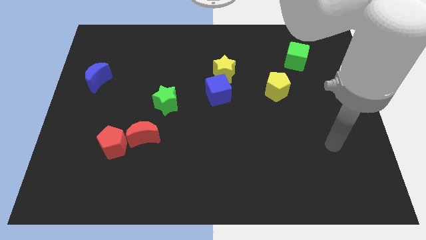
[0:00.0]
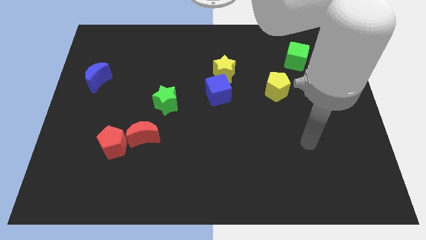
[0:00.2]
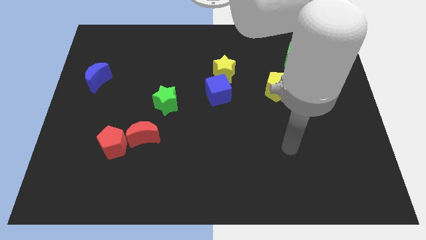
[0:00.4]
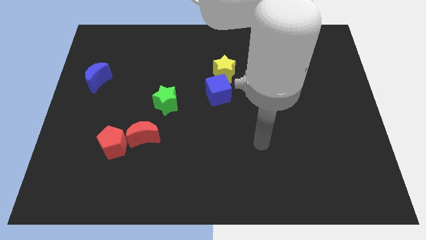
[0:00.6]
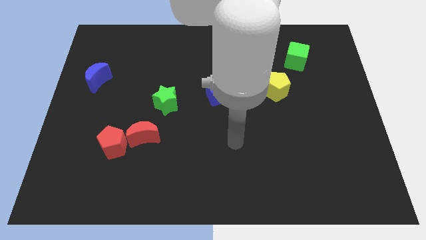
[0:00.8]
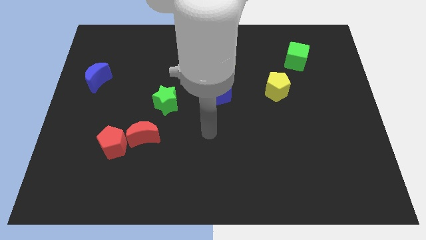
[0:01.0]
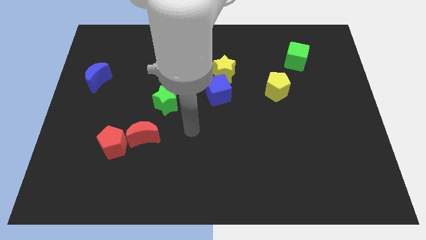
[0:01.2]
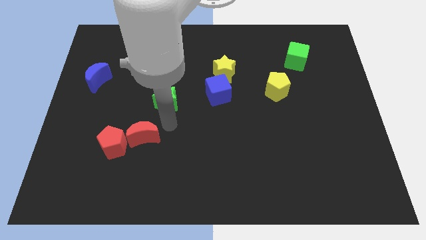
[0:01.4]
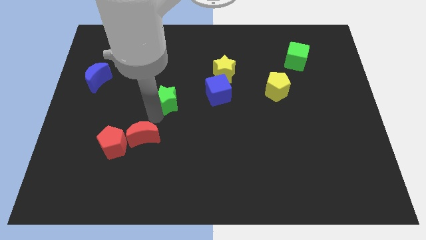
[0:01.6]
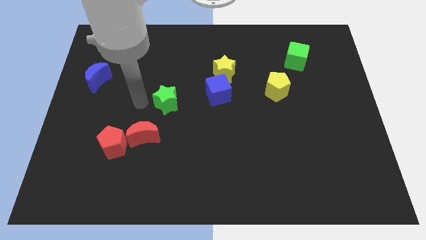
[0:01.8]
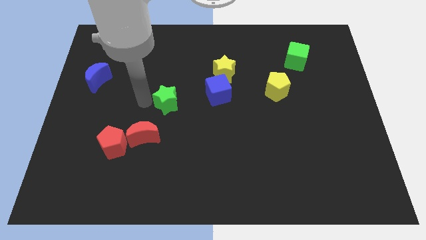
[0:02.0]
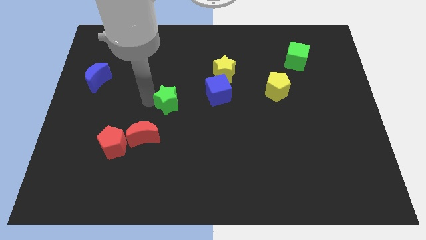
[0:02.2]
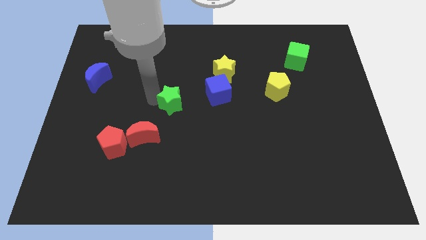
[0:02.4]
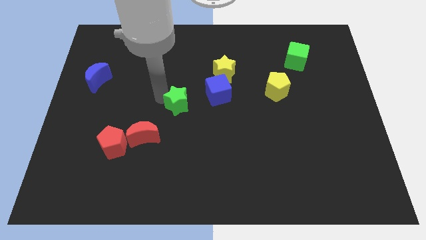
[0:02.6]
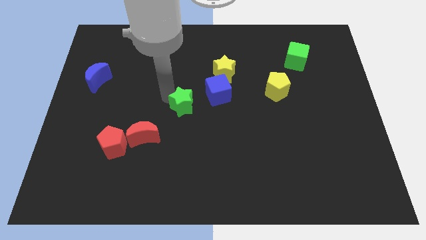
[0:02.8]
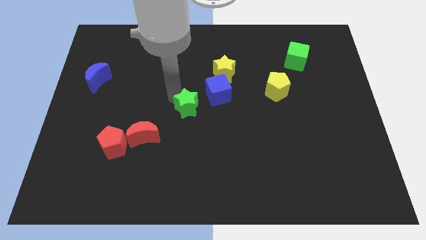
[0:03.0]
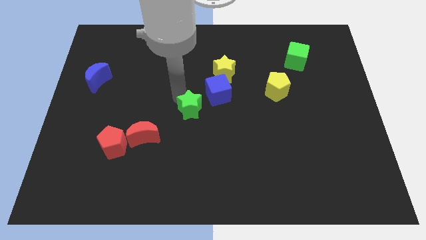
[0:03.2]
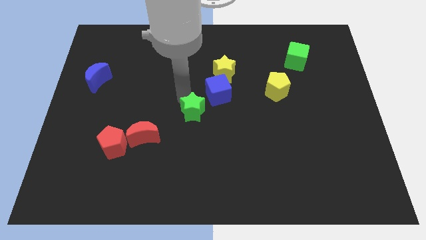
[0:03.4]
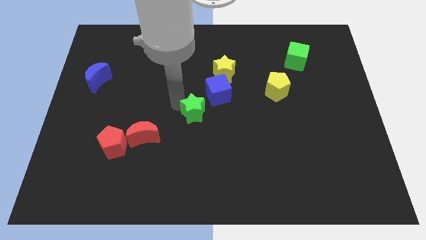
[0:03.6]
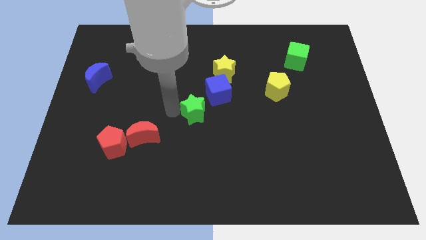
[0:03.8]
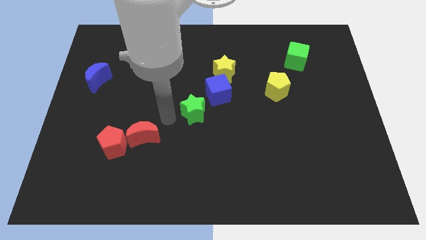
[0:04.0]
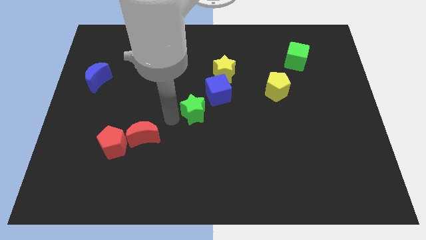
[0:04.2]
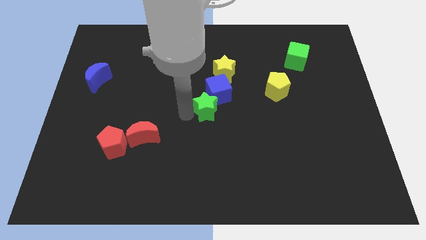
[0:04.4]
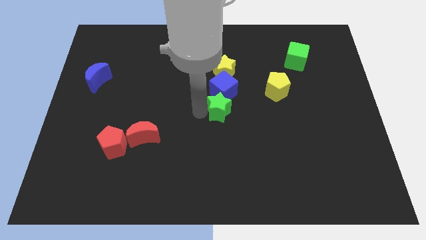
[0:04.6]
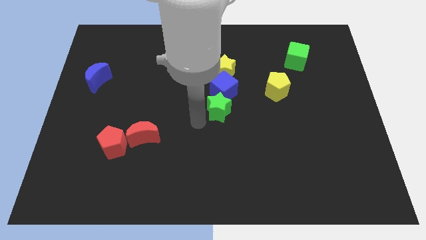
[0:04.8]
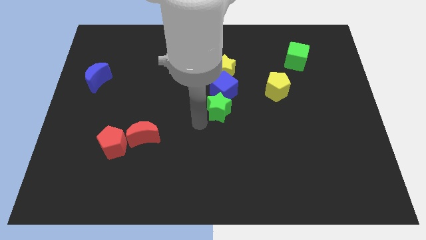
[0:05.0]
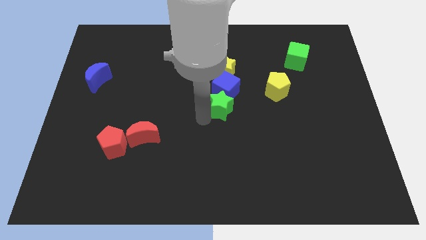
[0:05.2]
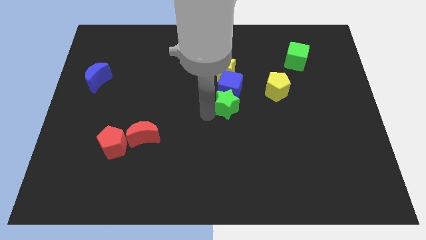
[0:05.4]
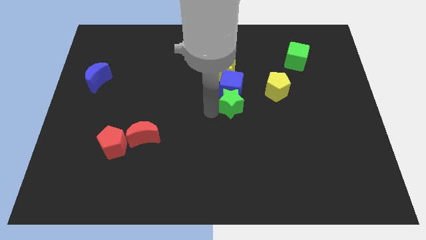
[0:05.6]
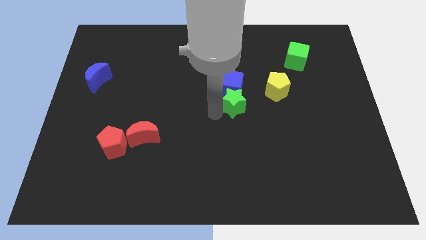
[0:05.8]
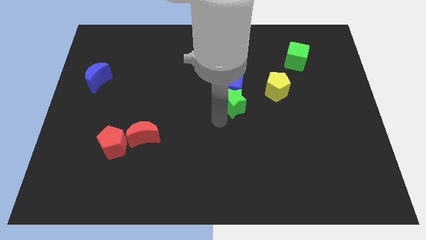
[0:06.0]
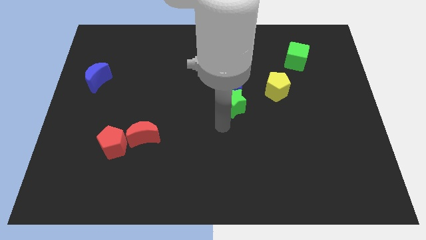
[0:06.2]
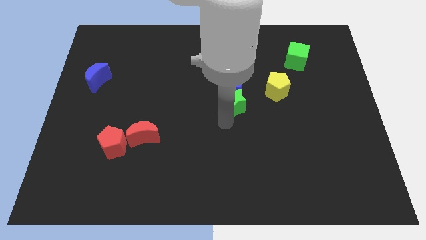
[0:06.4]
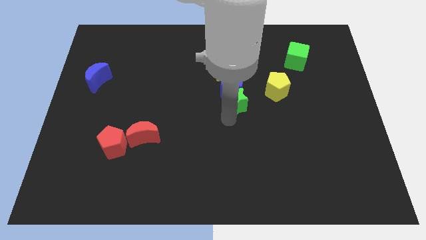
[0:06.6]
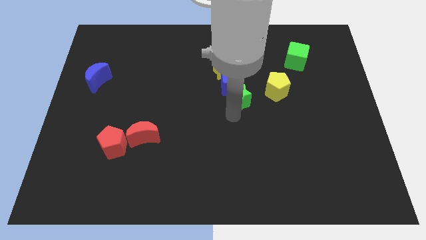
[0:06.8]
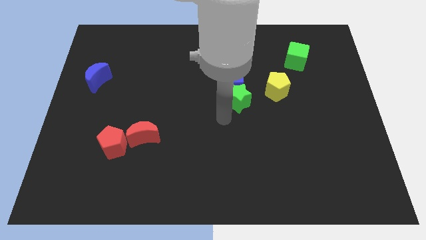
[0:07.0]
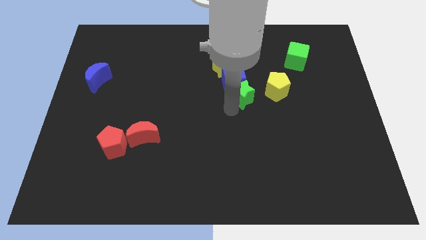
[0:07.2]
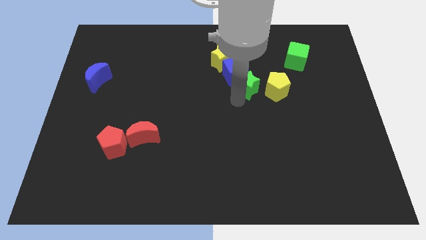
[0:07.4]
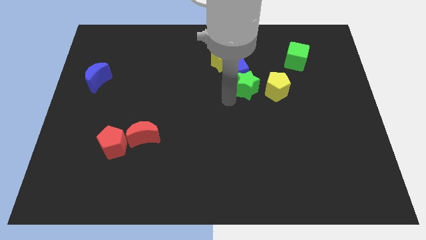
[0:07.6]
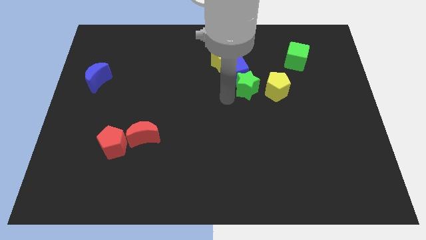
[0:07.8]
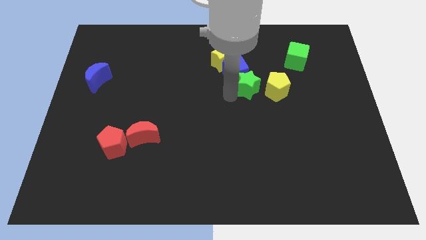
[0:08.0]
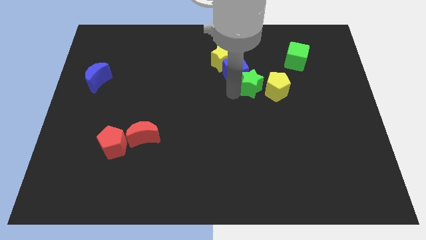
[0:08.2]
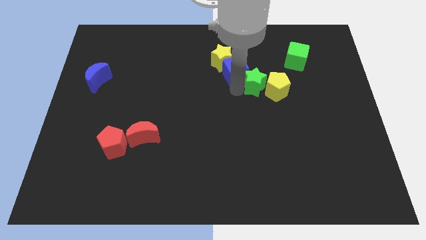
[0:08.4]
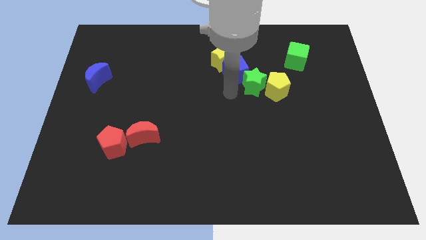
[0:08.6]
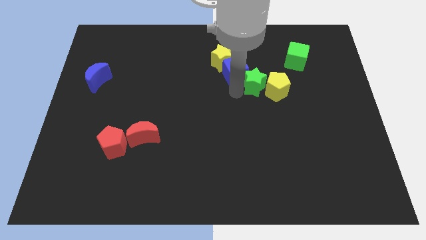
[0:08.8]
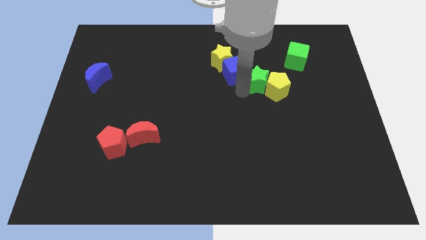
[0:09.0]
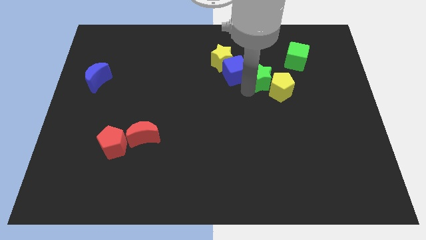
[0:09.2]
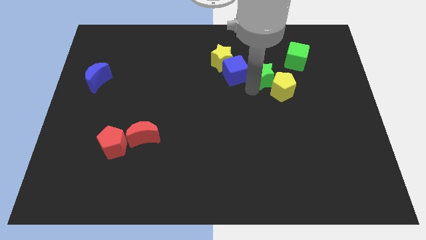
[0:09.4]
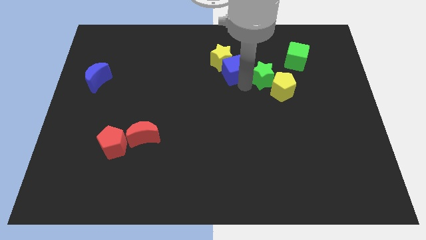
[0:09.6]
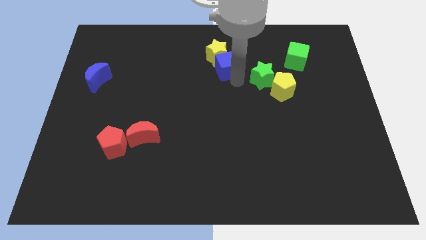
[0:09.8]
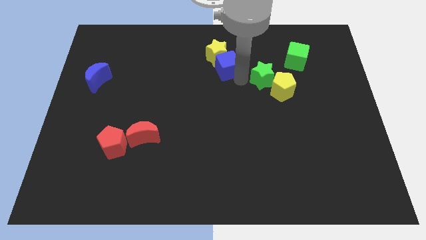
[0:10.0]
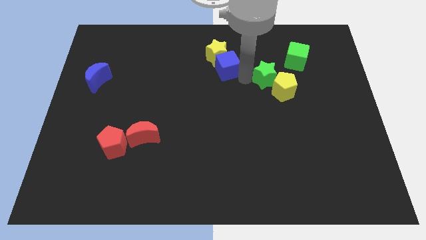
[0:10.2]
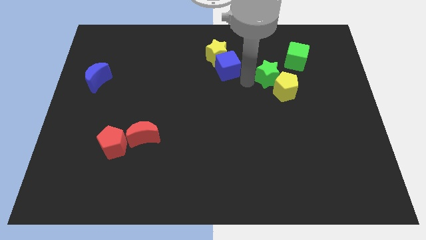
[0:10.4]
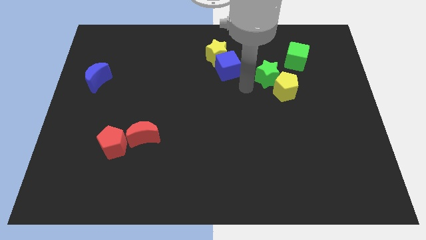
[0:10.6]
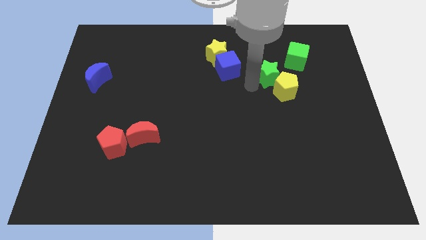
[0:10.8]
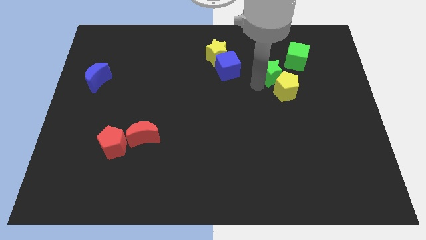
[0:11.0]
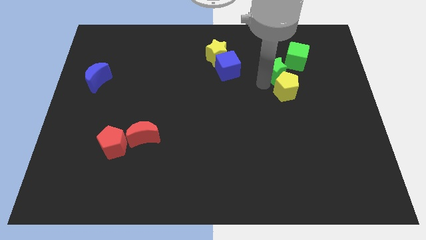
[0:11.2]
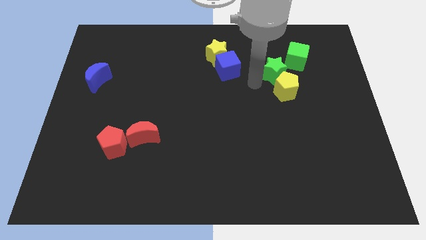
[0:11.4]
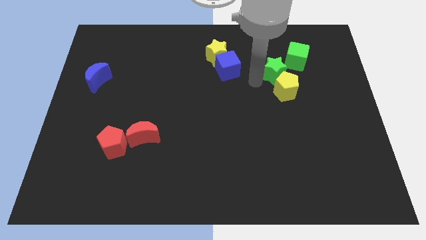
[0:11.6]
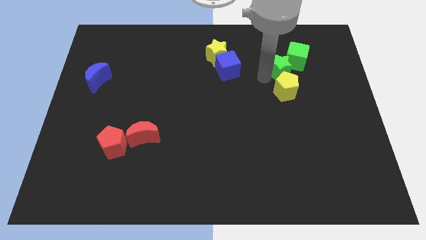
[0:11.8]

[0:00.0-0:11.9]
put the green star next to the green cube

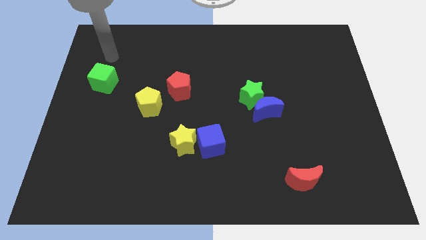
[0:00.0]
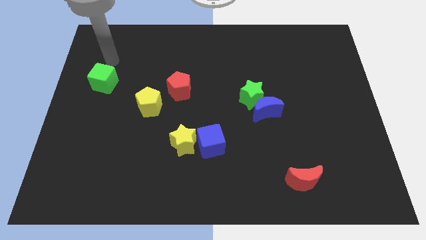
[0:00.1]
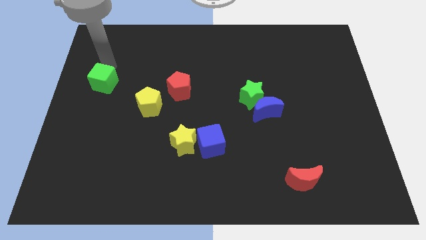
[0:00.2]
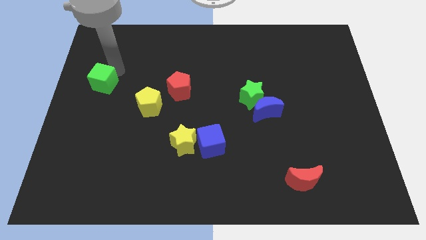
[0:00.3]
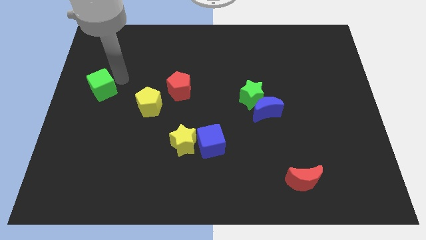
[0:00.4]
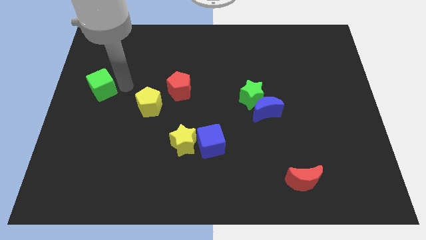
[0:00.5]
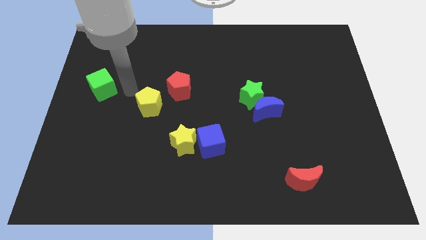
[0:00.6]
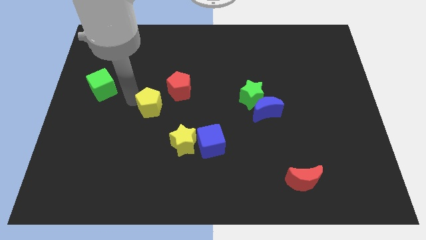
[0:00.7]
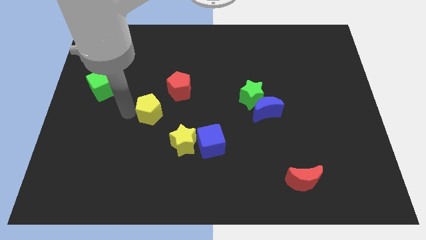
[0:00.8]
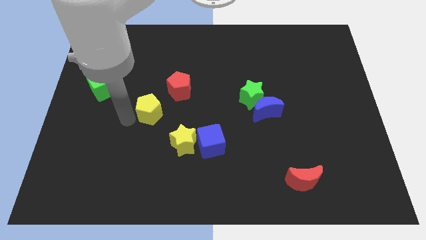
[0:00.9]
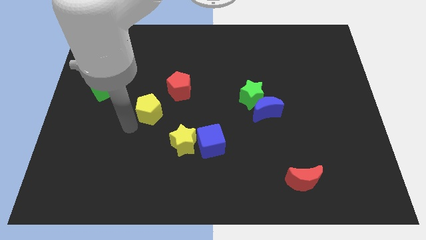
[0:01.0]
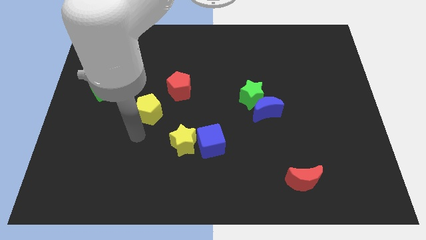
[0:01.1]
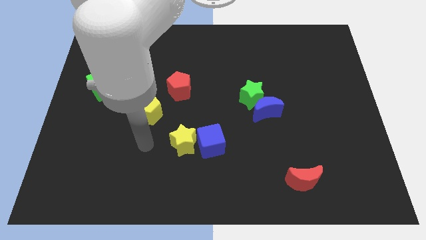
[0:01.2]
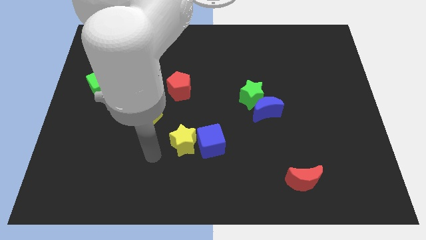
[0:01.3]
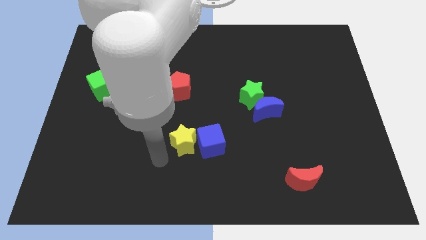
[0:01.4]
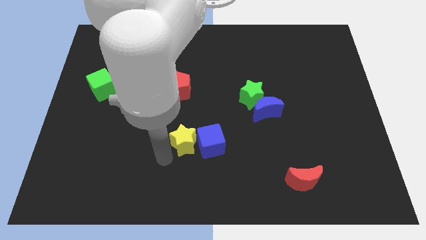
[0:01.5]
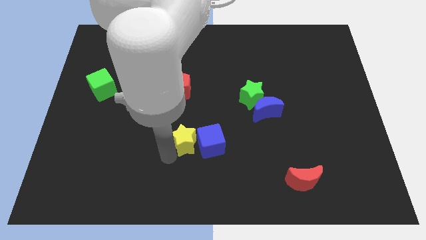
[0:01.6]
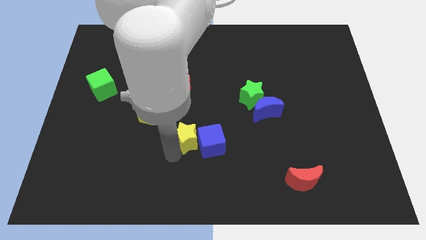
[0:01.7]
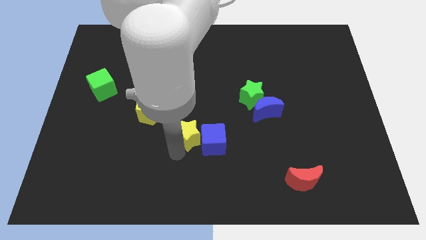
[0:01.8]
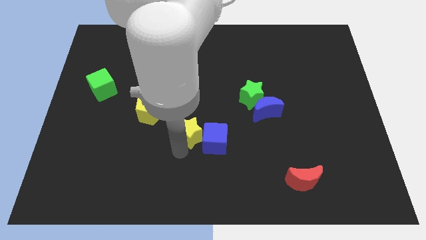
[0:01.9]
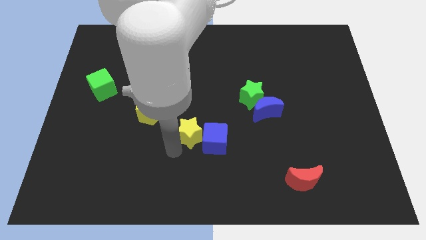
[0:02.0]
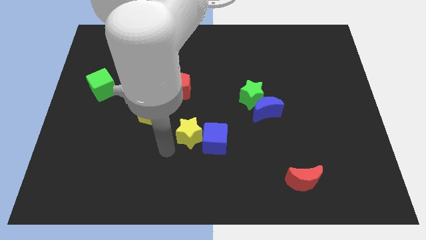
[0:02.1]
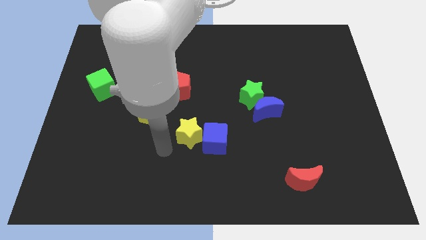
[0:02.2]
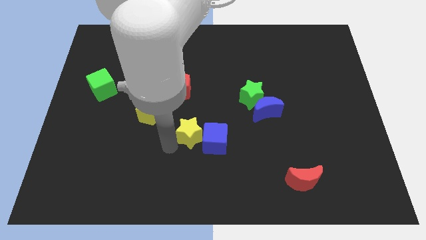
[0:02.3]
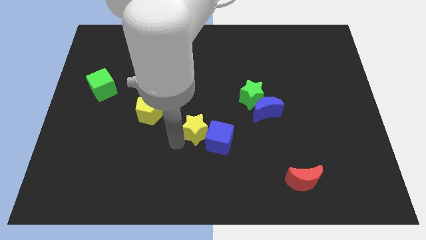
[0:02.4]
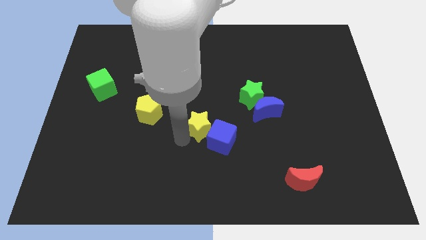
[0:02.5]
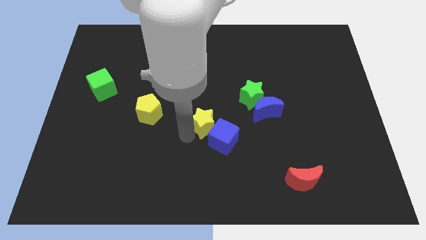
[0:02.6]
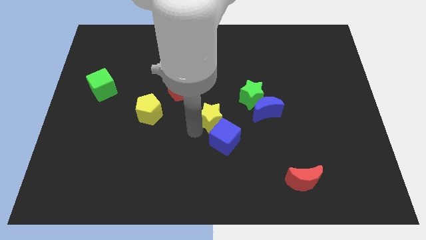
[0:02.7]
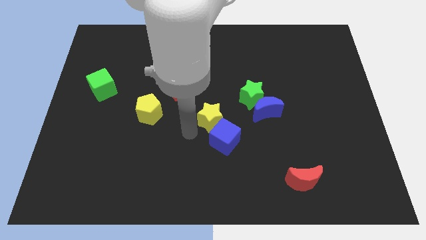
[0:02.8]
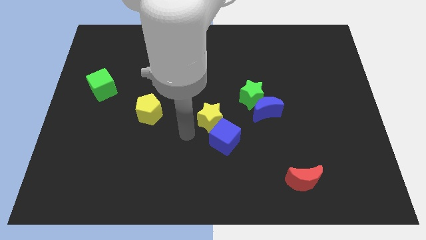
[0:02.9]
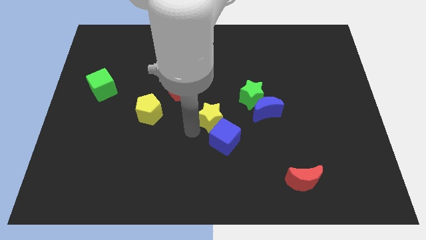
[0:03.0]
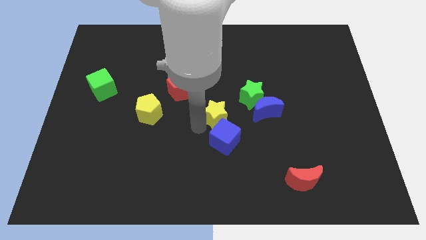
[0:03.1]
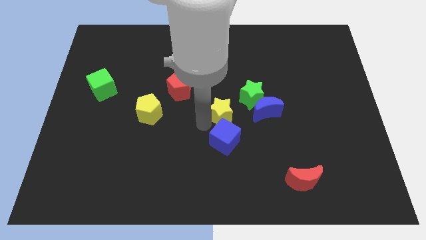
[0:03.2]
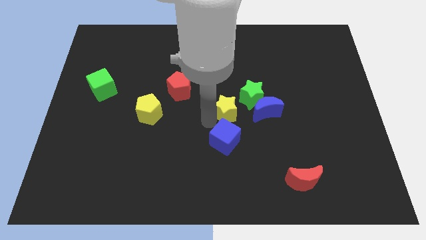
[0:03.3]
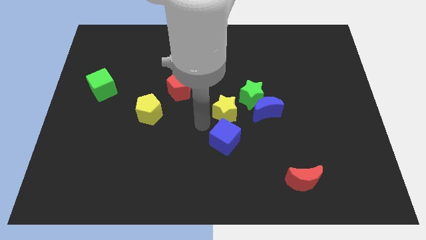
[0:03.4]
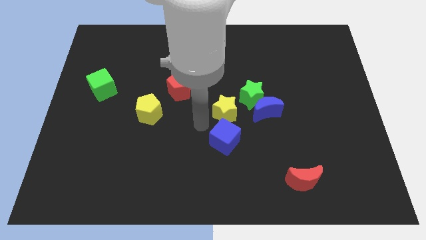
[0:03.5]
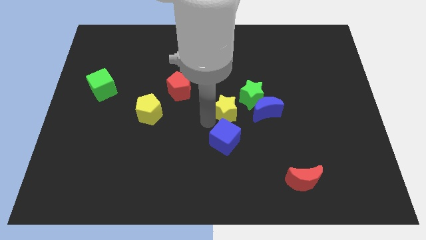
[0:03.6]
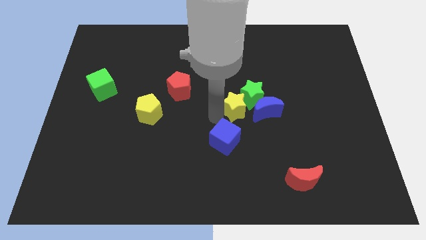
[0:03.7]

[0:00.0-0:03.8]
push the yellow star next to the green star
